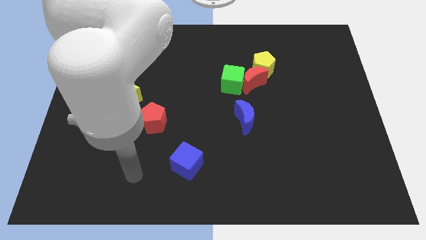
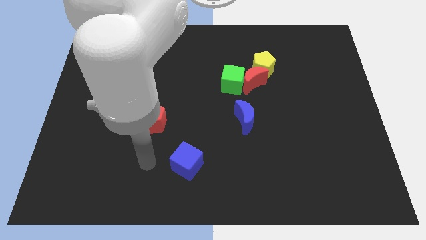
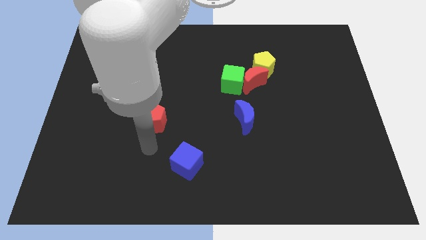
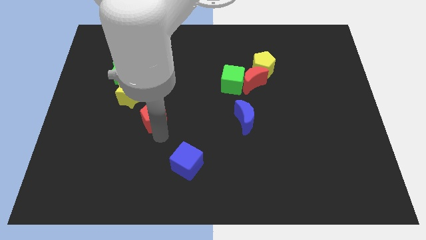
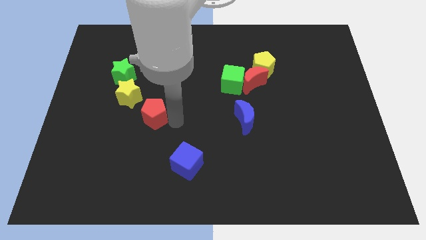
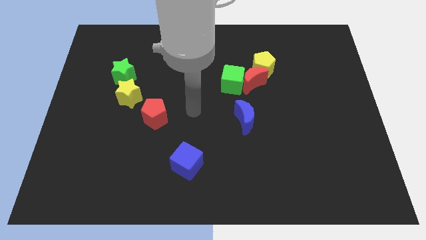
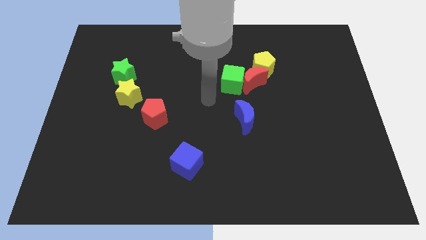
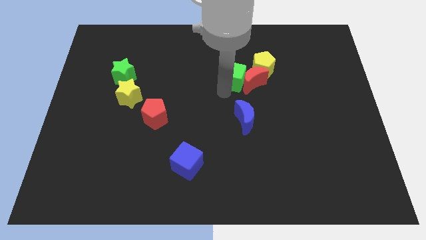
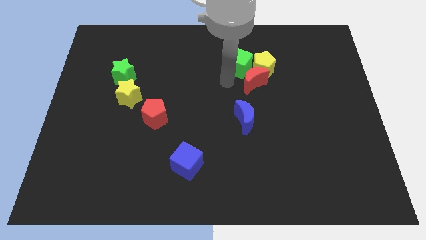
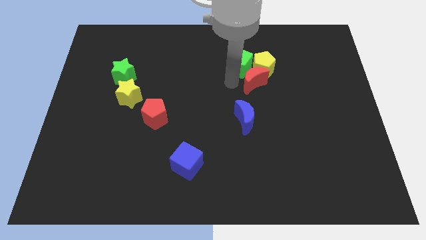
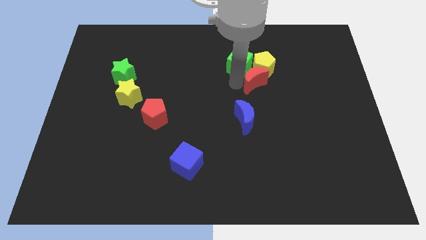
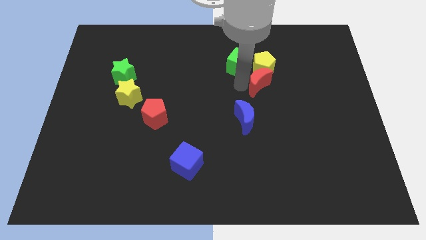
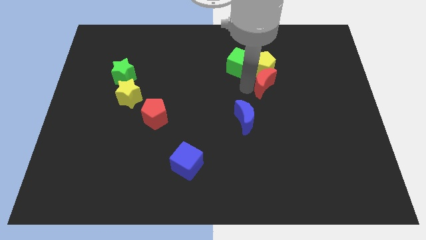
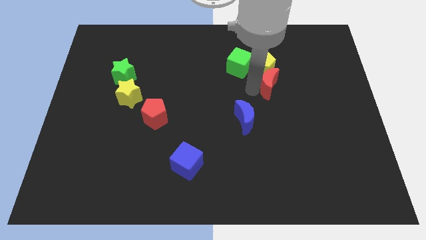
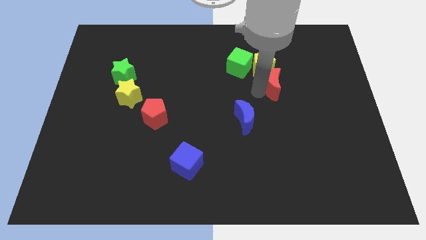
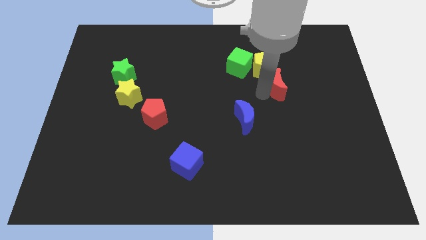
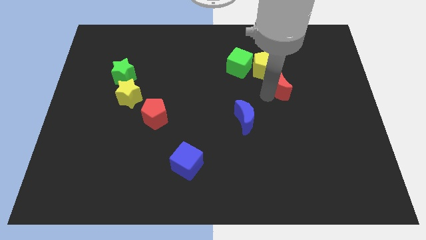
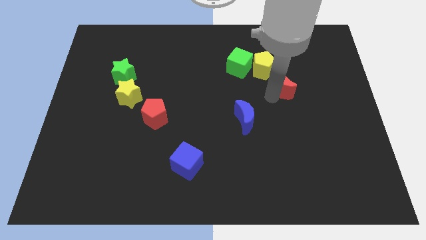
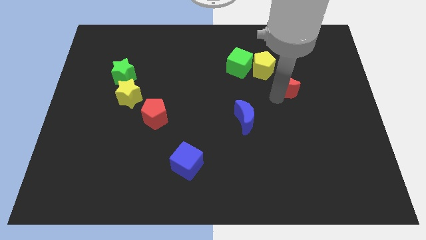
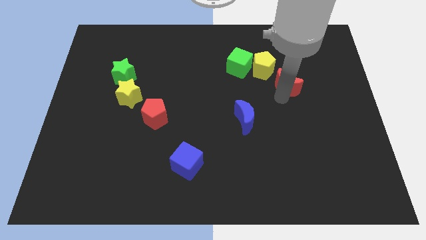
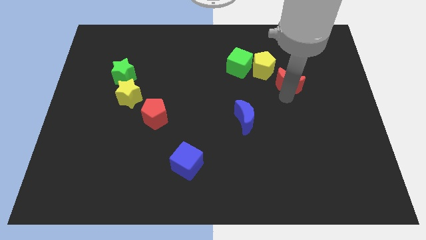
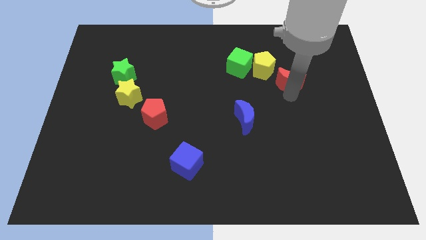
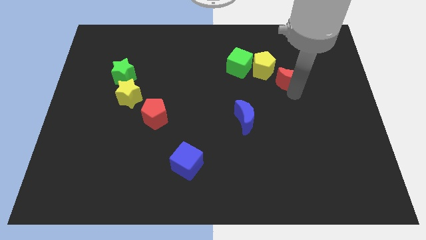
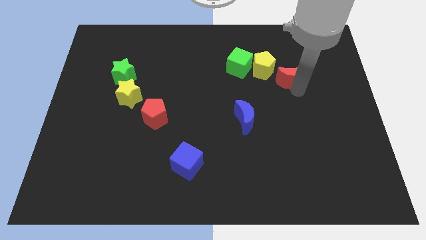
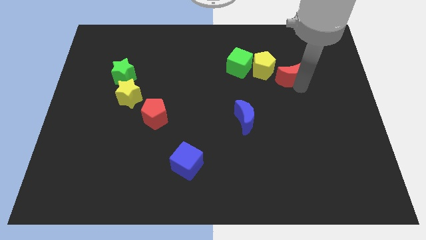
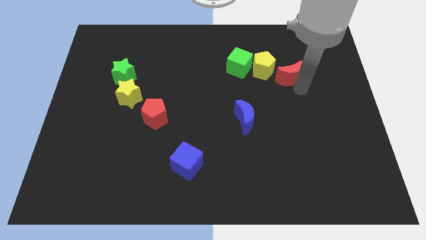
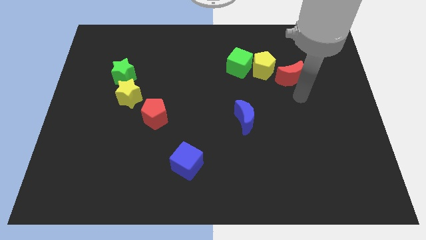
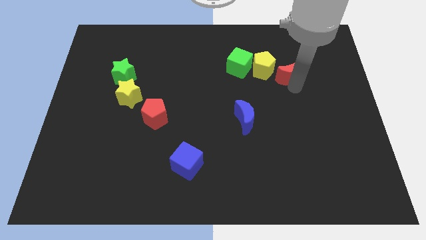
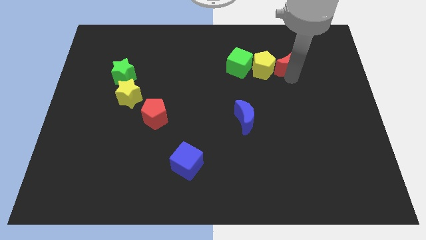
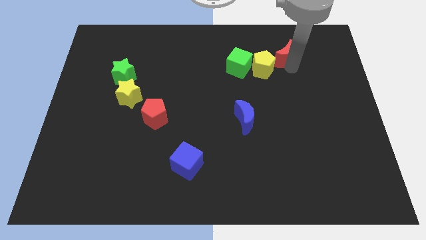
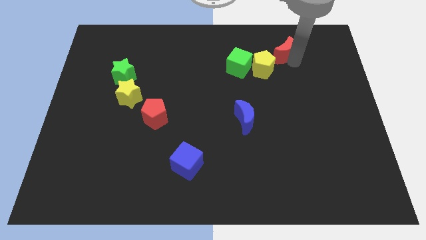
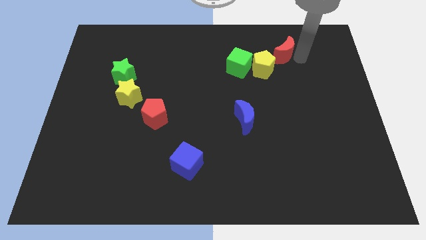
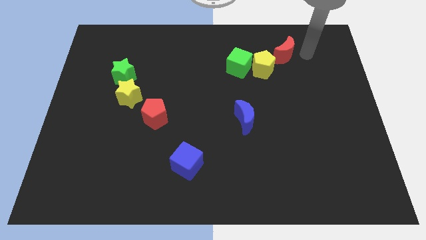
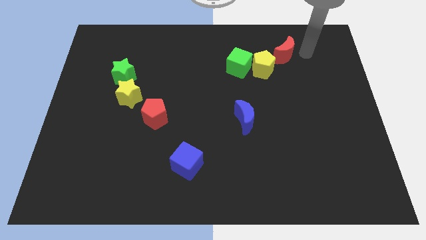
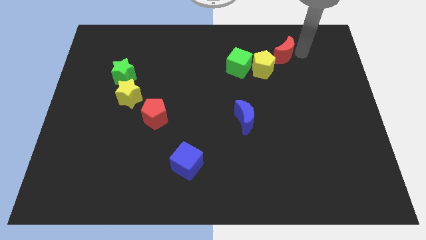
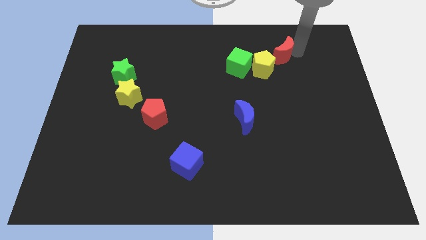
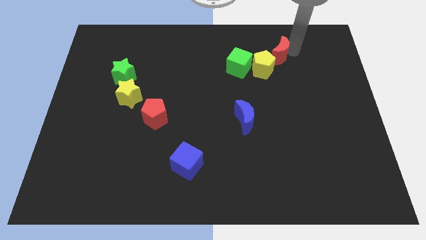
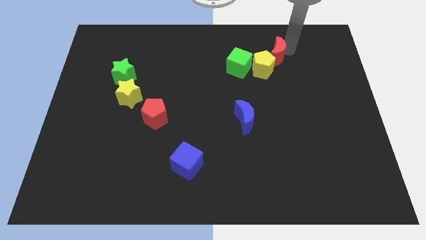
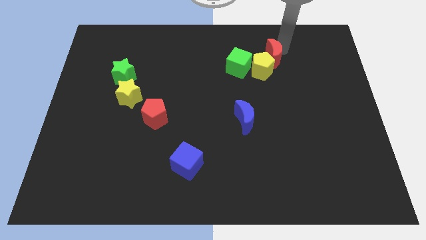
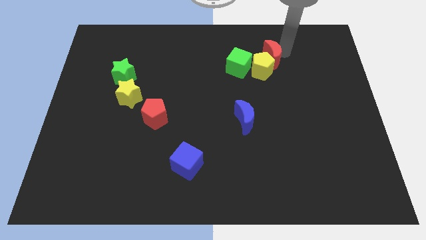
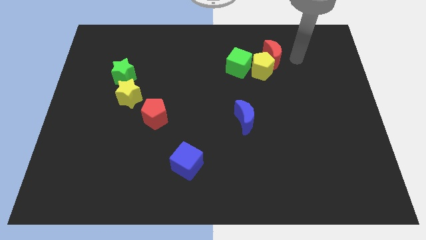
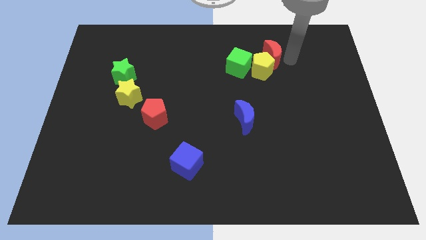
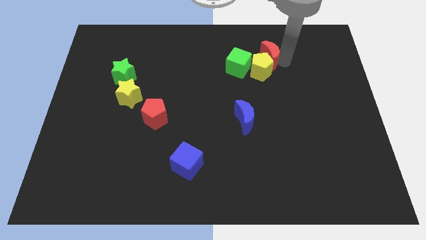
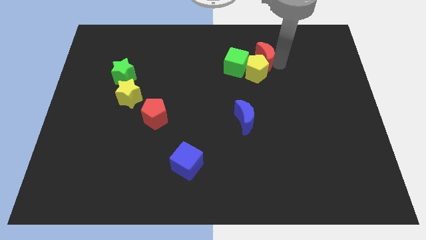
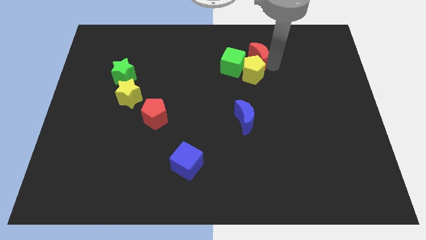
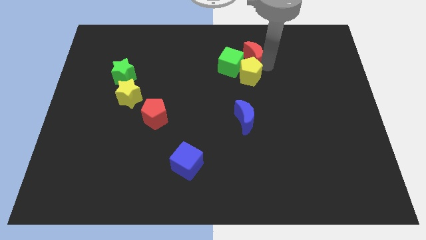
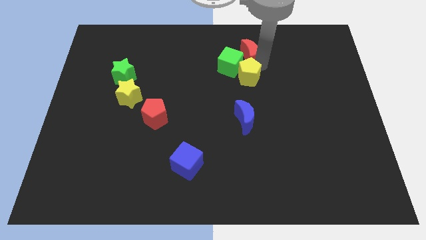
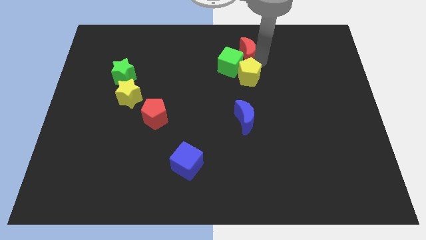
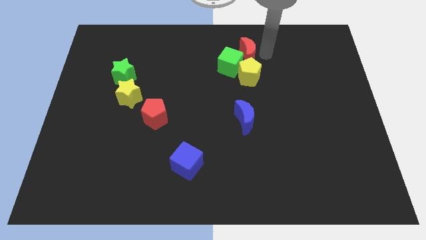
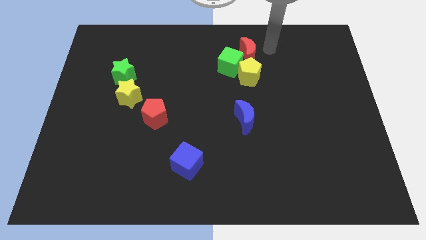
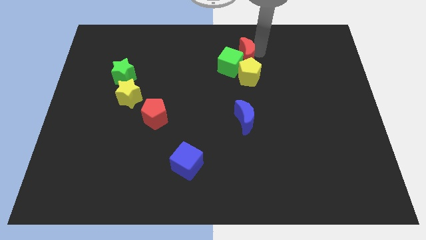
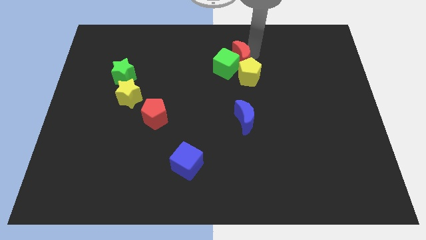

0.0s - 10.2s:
slide the red moon to the top left side of the yellow pentagon

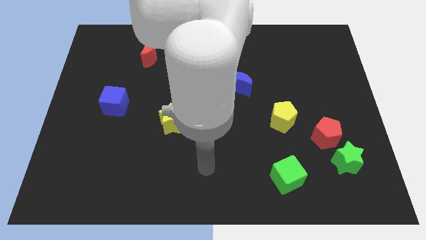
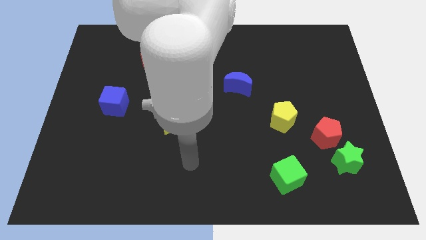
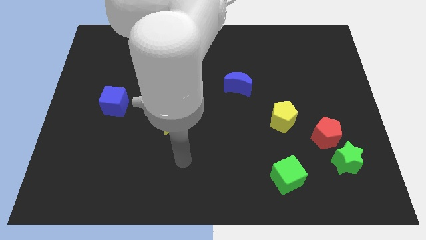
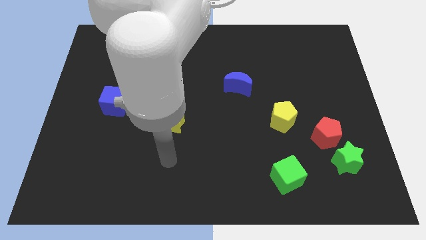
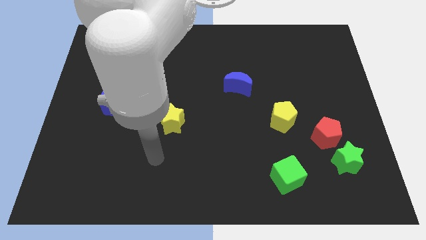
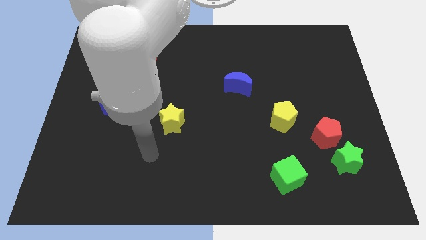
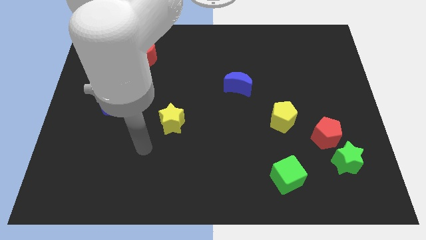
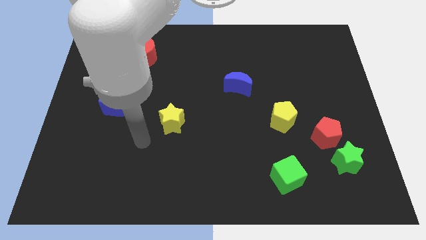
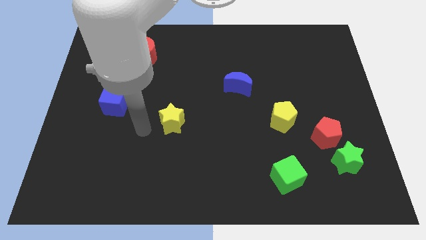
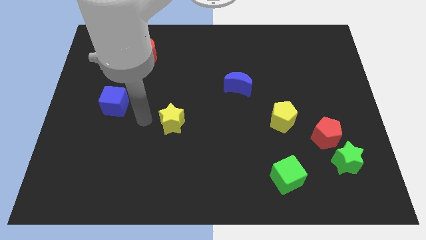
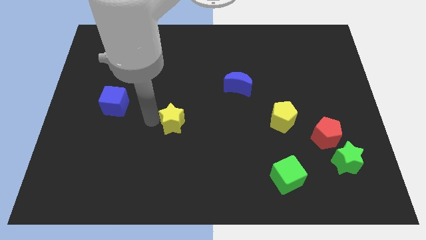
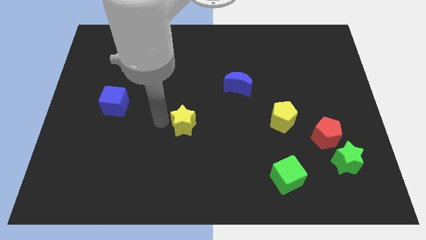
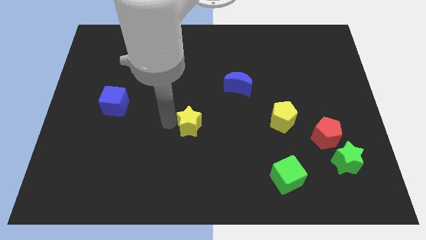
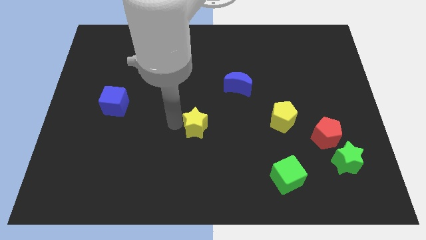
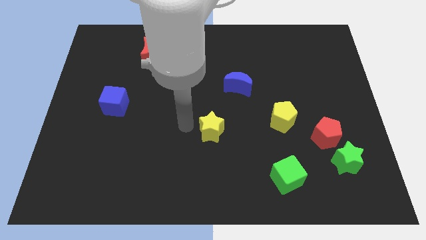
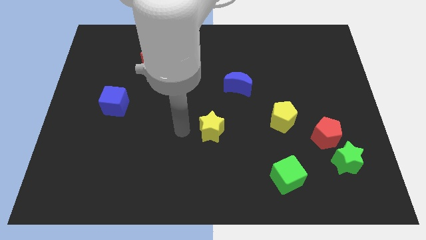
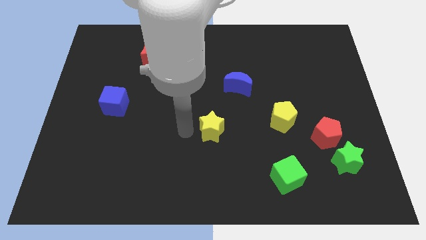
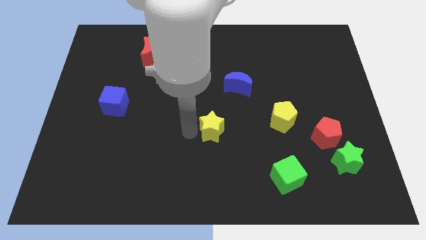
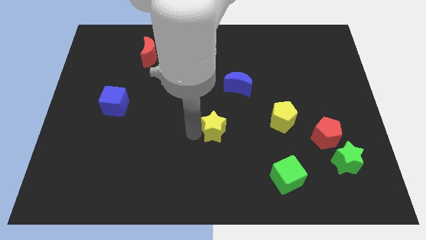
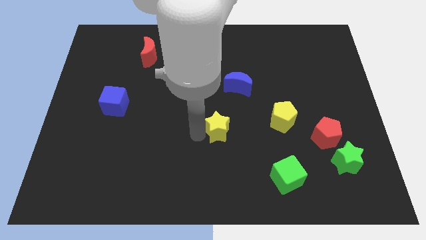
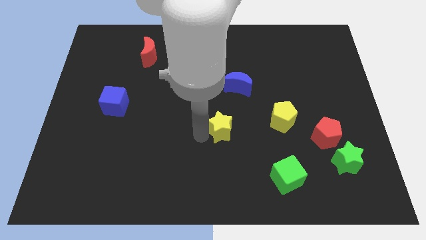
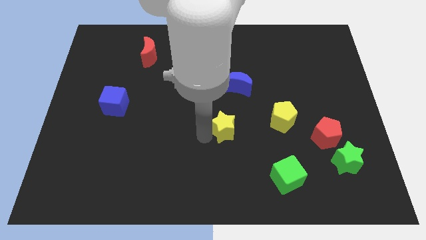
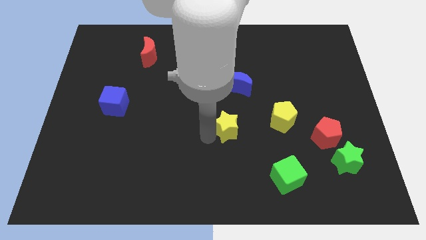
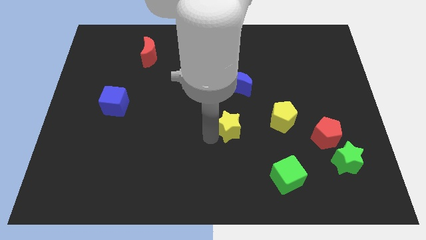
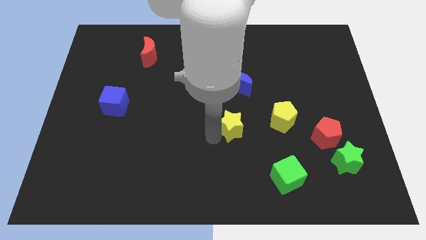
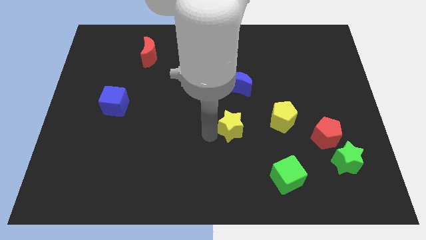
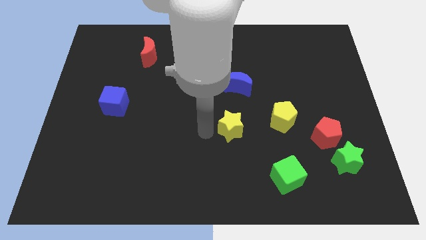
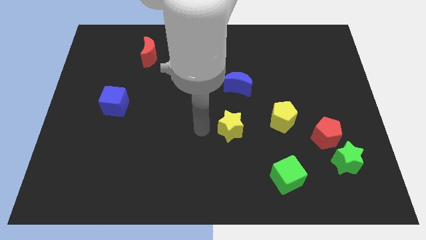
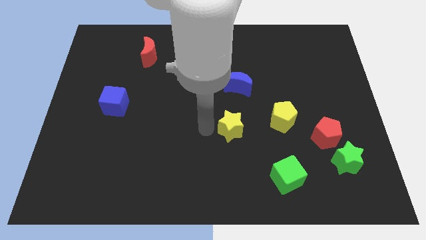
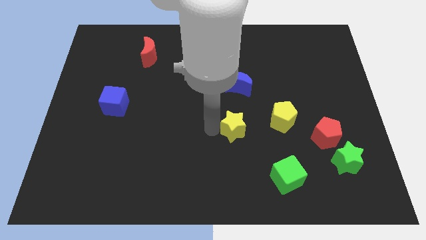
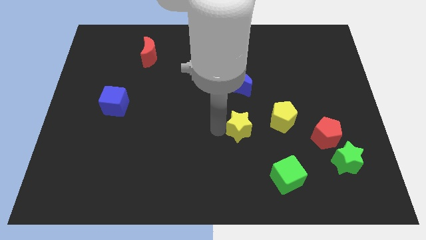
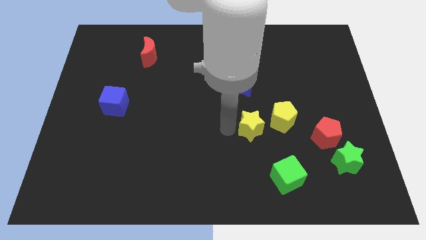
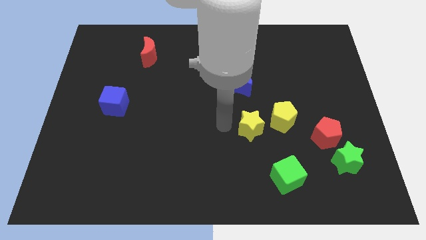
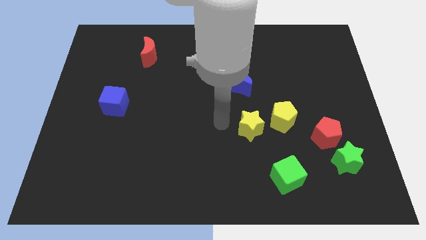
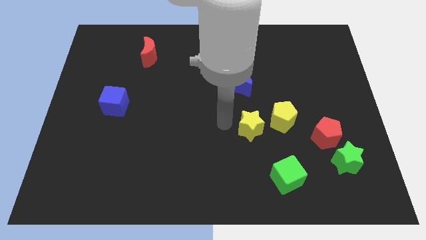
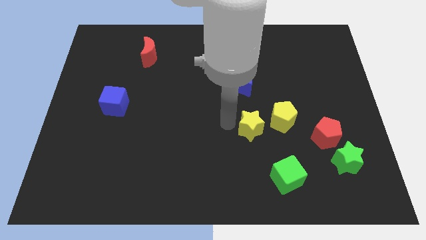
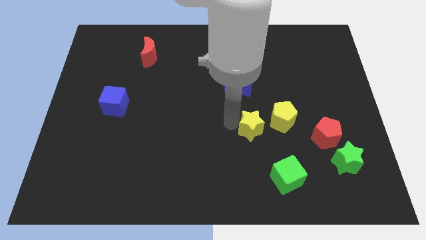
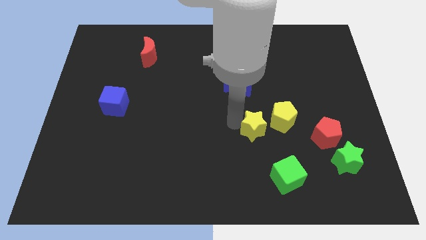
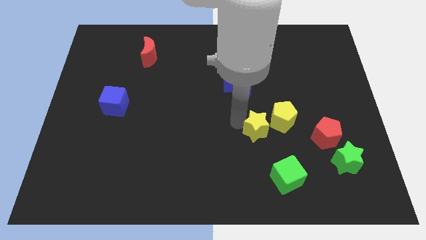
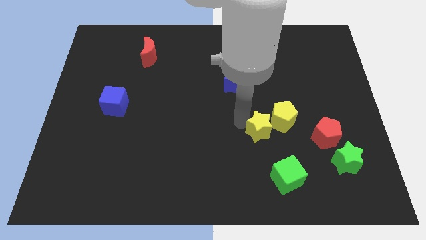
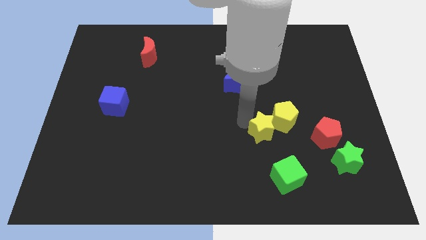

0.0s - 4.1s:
move the yellow star above the green cube
